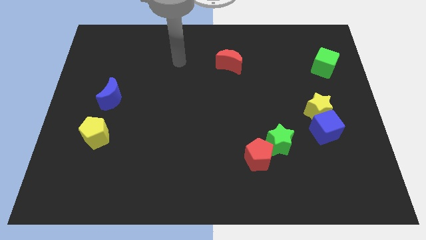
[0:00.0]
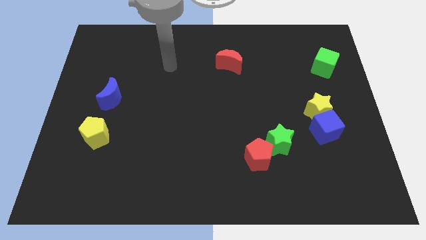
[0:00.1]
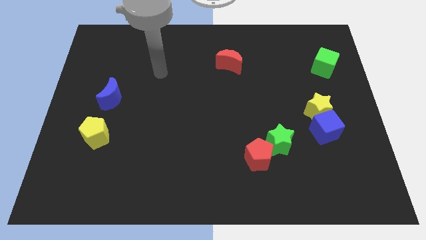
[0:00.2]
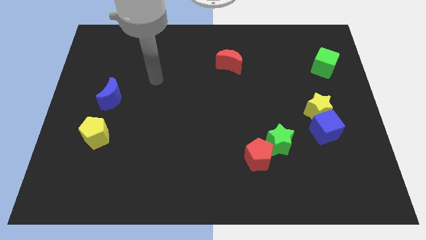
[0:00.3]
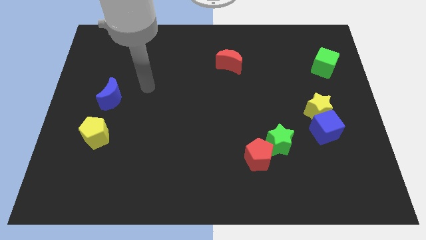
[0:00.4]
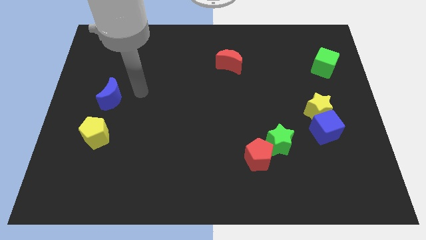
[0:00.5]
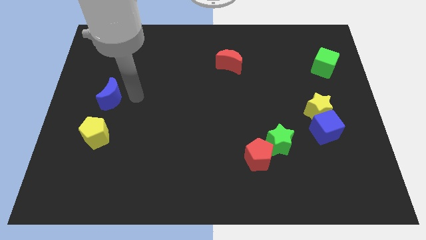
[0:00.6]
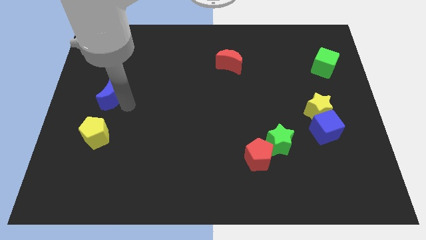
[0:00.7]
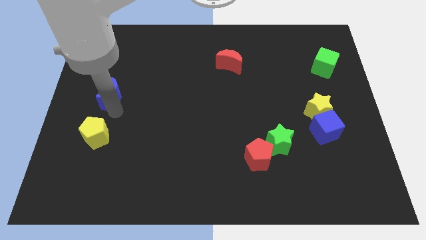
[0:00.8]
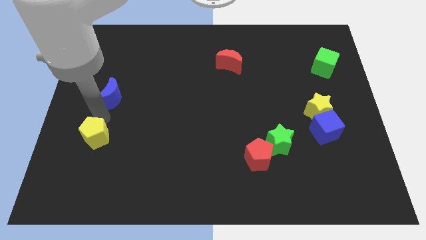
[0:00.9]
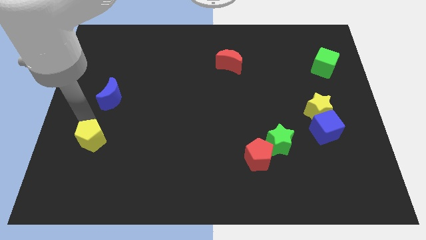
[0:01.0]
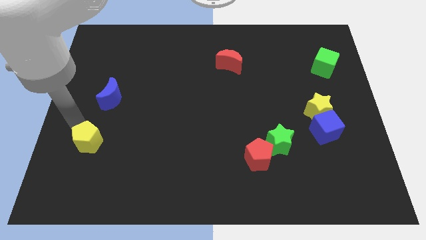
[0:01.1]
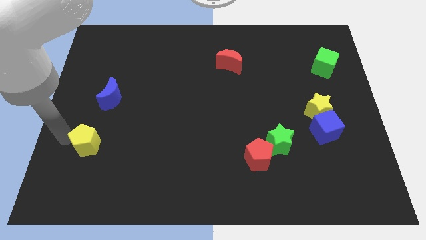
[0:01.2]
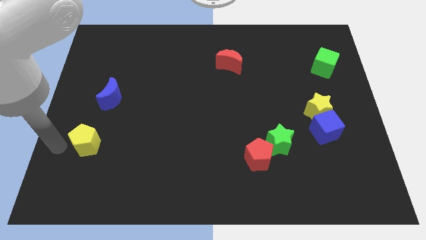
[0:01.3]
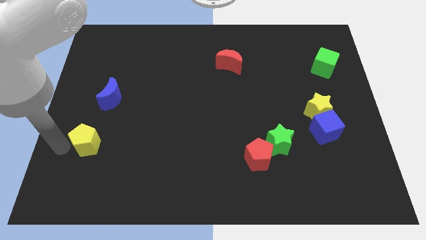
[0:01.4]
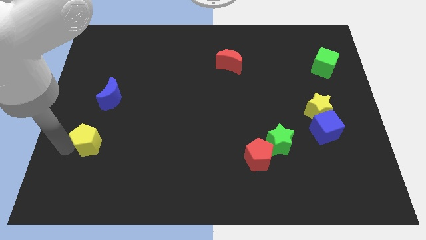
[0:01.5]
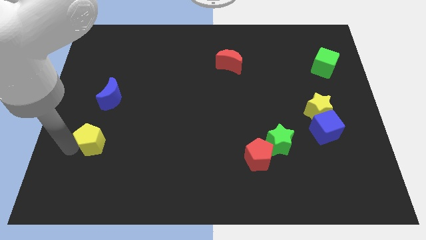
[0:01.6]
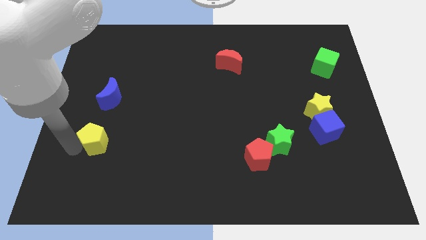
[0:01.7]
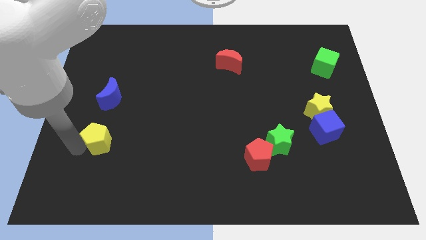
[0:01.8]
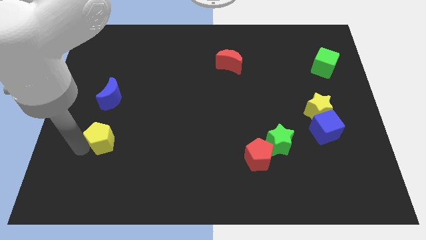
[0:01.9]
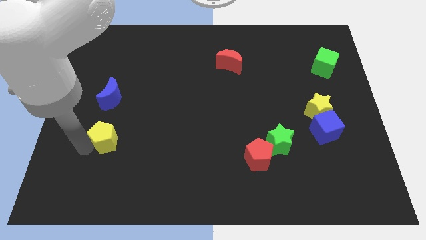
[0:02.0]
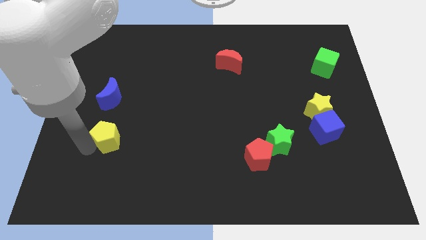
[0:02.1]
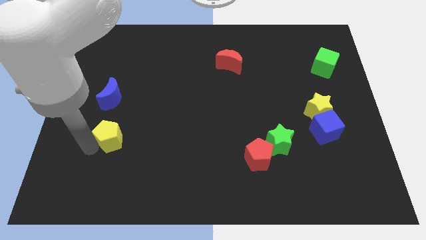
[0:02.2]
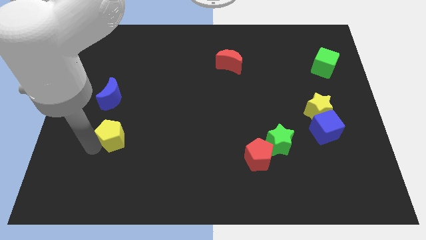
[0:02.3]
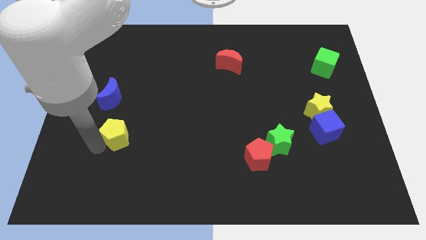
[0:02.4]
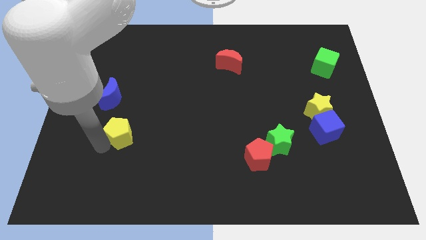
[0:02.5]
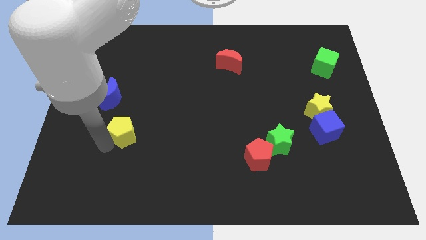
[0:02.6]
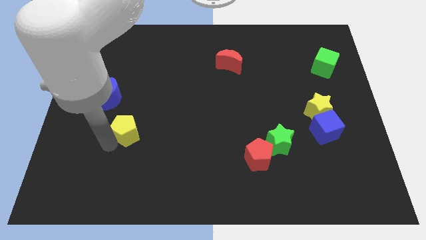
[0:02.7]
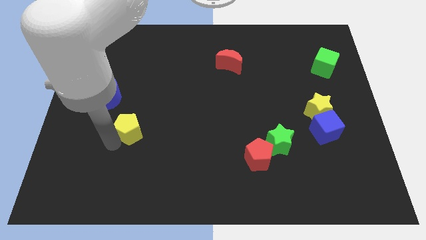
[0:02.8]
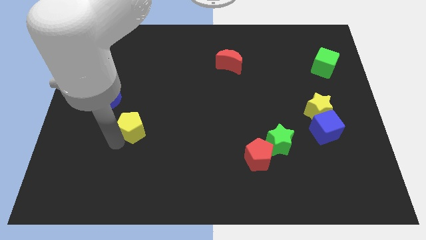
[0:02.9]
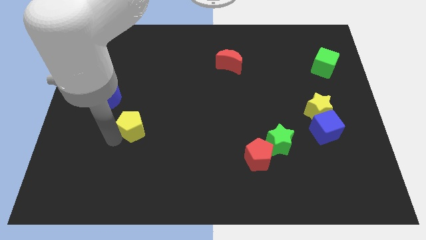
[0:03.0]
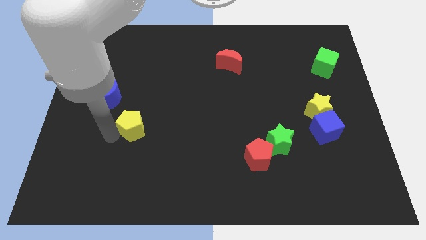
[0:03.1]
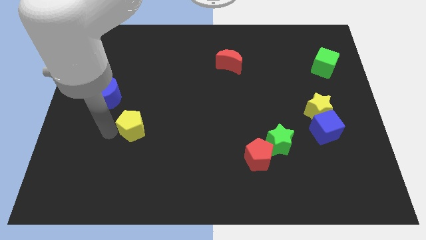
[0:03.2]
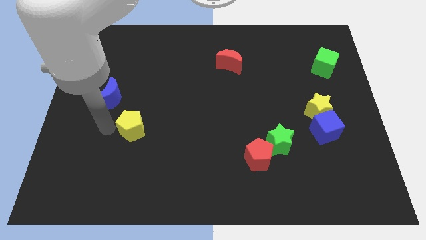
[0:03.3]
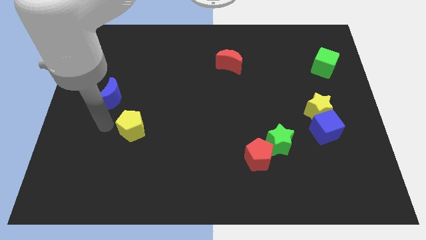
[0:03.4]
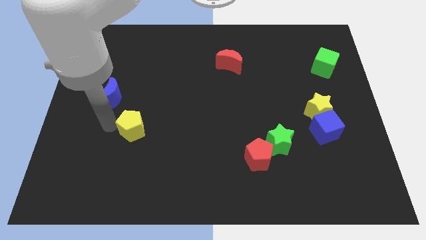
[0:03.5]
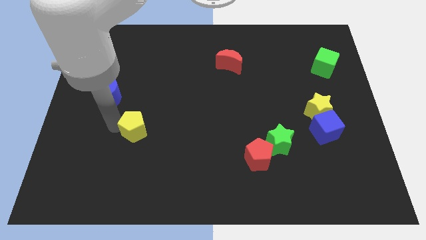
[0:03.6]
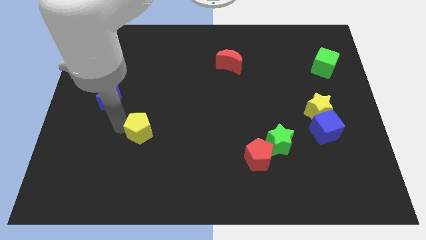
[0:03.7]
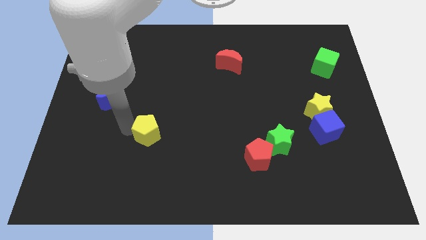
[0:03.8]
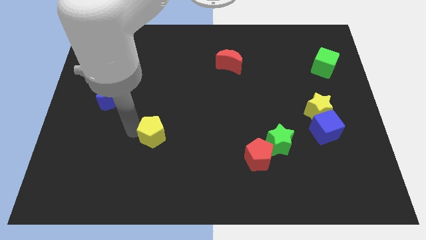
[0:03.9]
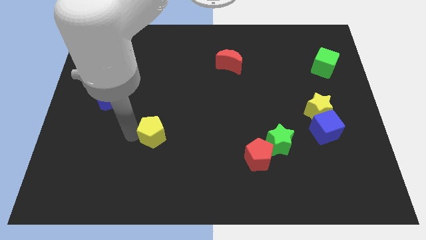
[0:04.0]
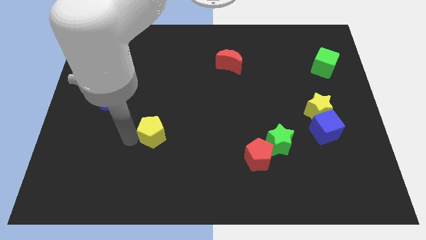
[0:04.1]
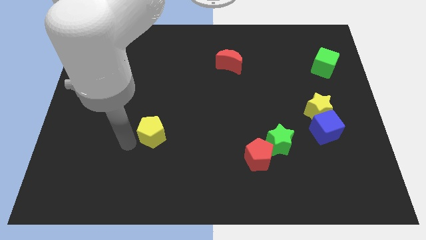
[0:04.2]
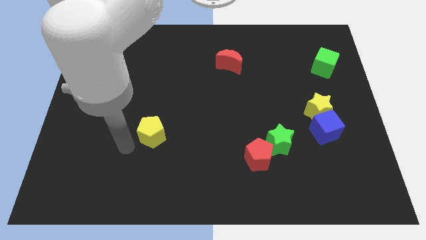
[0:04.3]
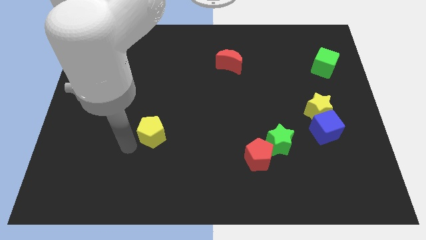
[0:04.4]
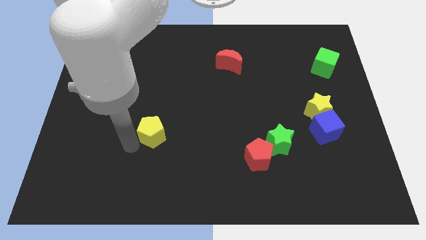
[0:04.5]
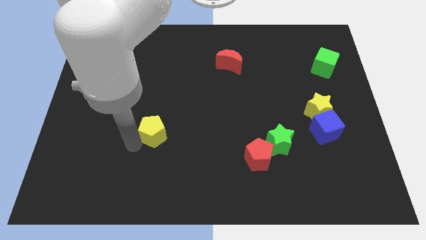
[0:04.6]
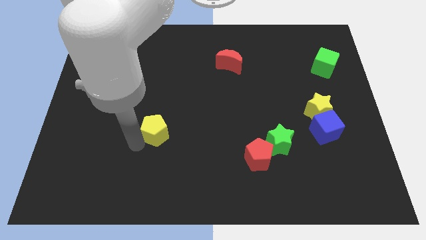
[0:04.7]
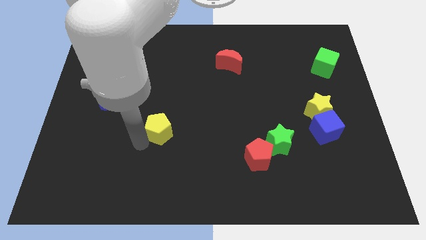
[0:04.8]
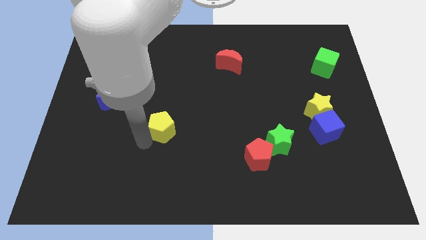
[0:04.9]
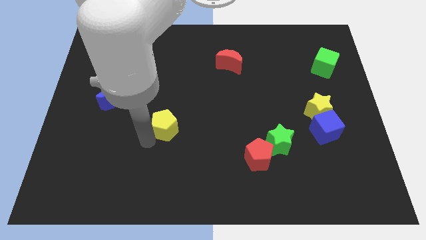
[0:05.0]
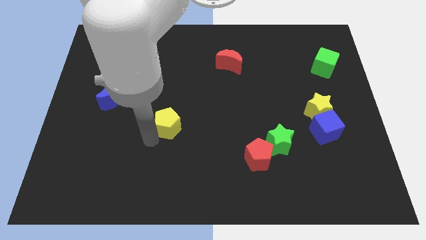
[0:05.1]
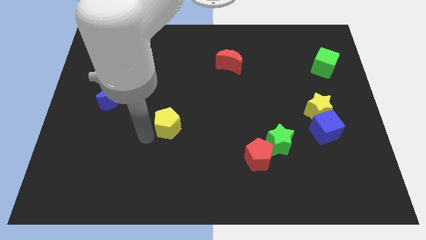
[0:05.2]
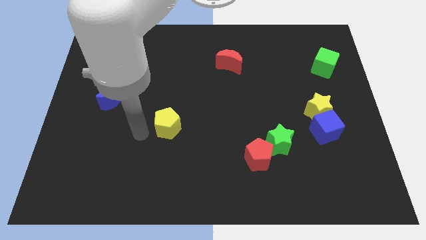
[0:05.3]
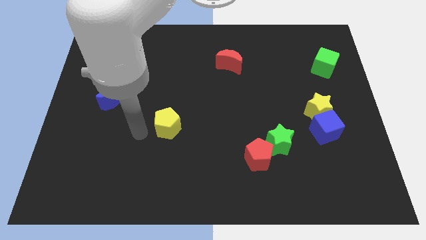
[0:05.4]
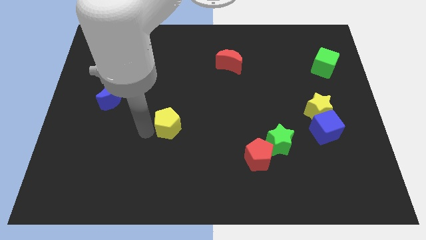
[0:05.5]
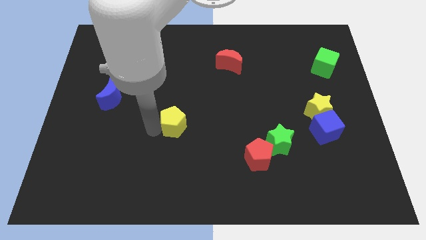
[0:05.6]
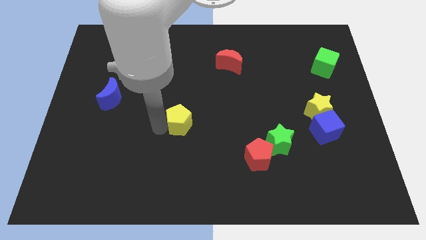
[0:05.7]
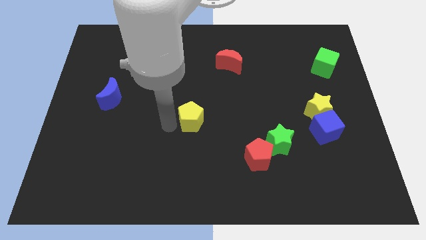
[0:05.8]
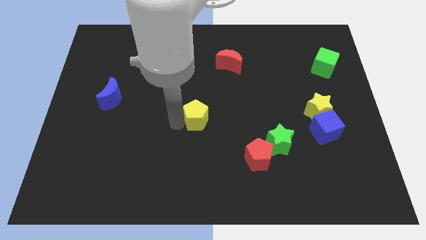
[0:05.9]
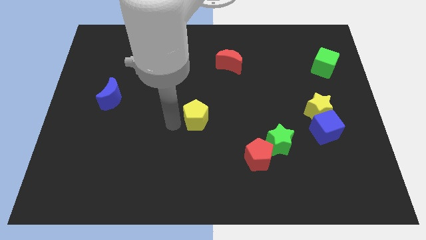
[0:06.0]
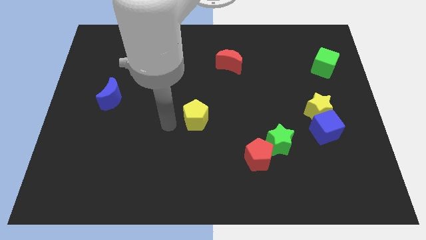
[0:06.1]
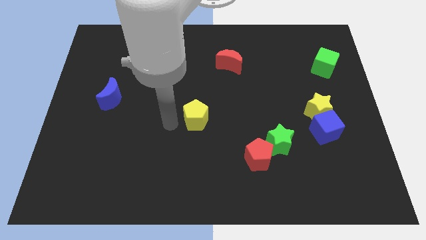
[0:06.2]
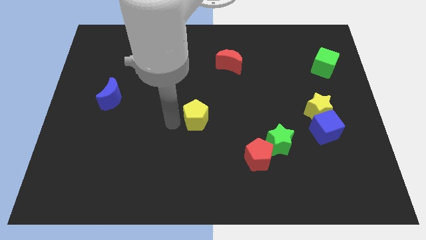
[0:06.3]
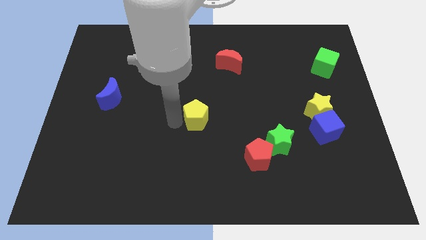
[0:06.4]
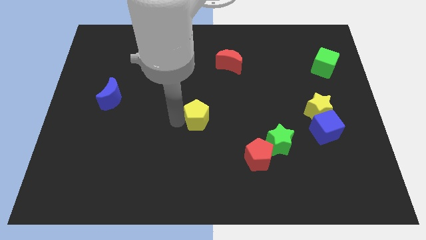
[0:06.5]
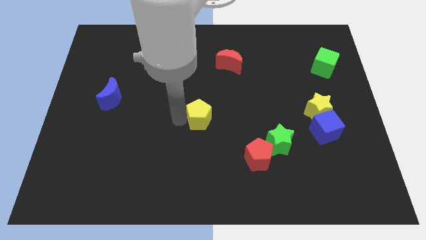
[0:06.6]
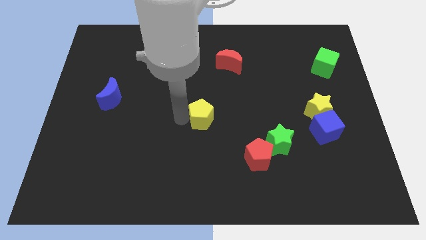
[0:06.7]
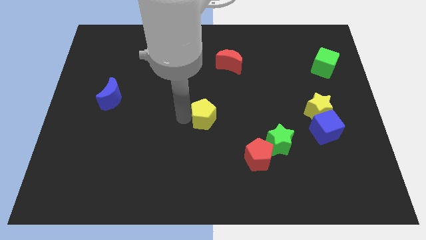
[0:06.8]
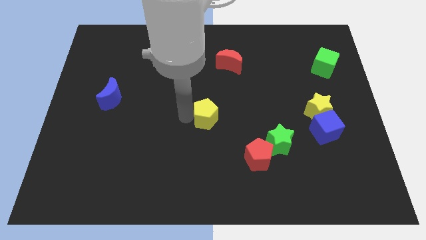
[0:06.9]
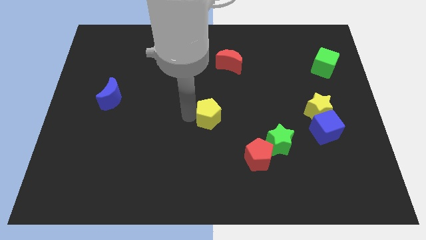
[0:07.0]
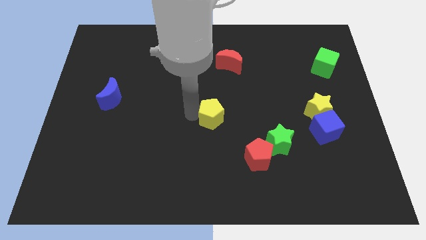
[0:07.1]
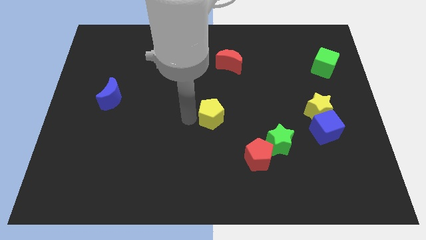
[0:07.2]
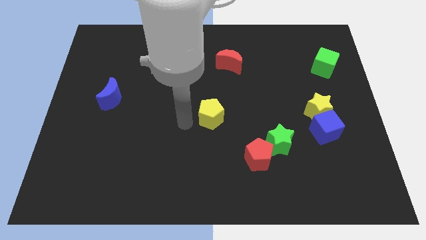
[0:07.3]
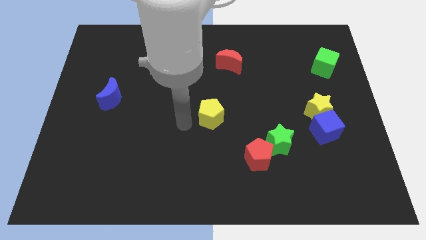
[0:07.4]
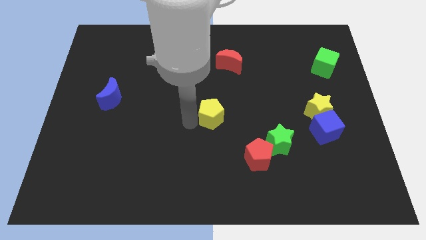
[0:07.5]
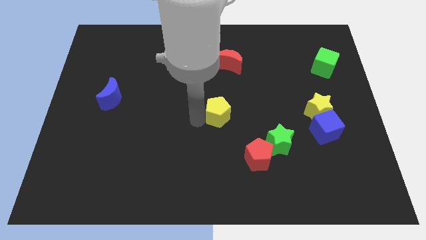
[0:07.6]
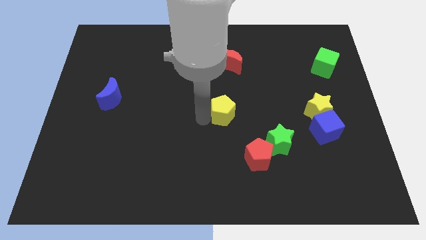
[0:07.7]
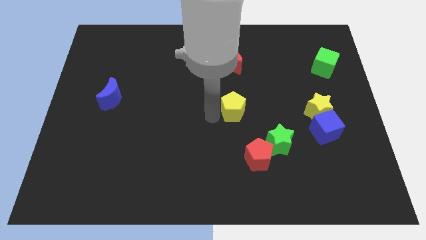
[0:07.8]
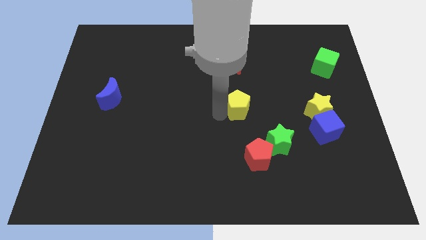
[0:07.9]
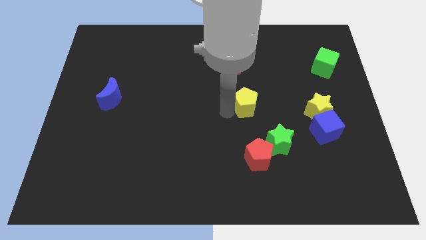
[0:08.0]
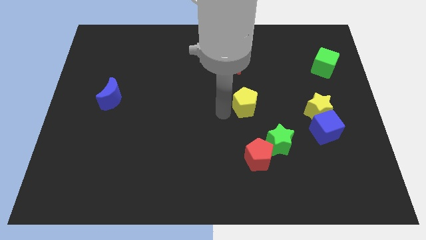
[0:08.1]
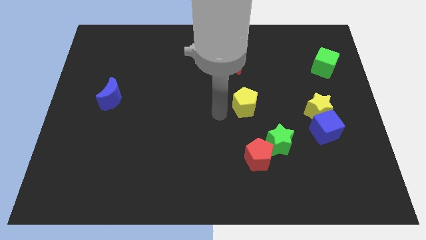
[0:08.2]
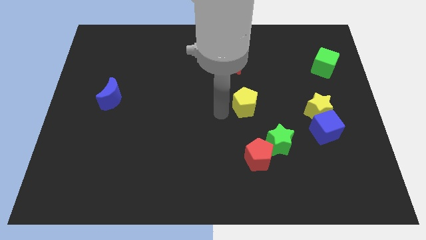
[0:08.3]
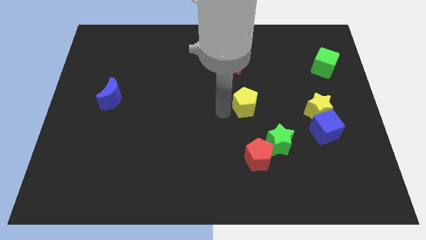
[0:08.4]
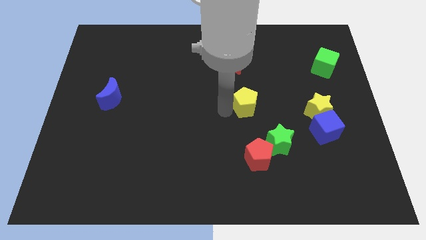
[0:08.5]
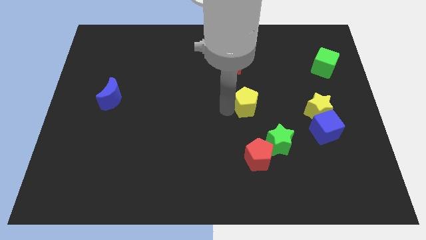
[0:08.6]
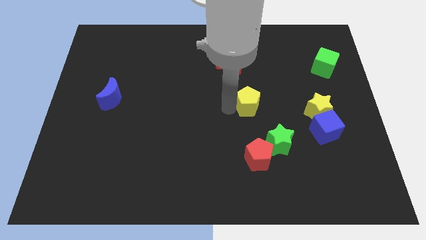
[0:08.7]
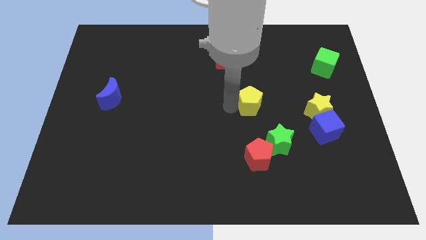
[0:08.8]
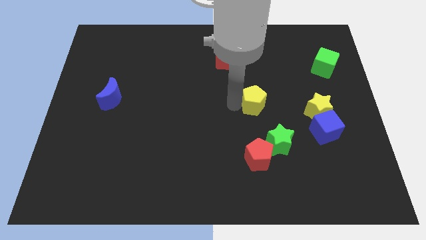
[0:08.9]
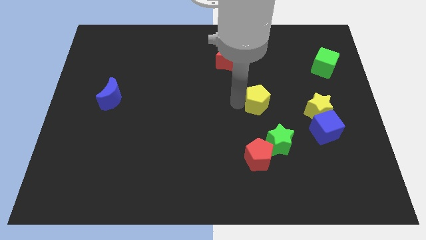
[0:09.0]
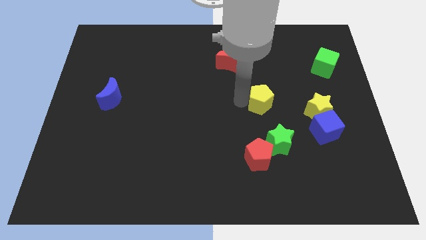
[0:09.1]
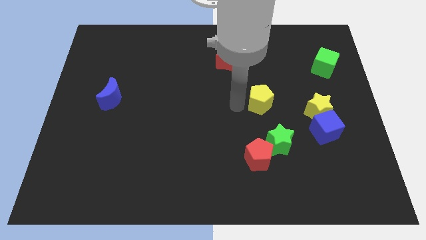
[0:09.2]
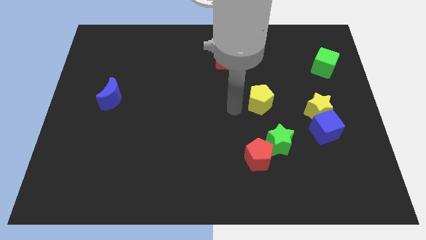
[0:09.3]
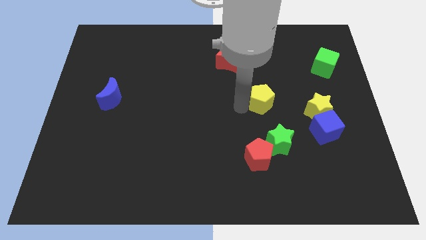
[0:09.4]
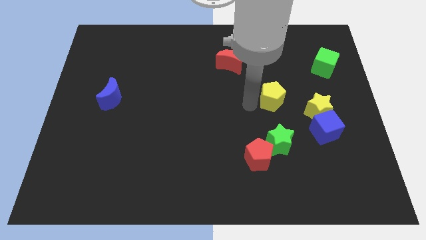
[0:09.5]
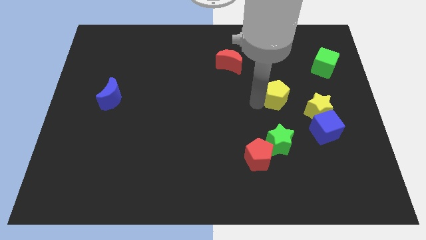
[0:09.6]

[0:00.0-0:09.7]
put the yellow pentagon diagonally up and to the left of the yellow star
